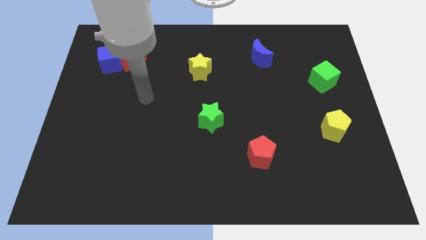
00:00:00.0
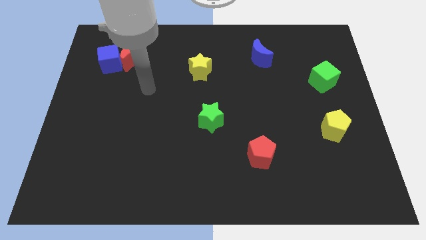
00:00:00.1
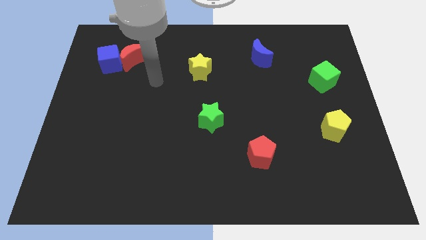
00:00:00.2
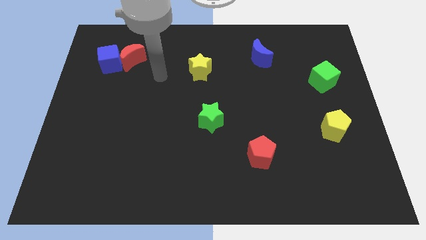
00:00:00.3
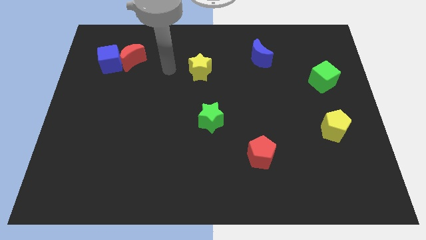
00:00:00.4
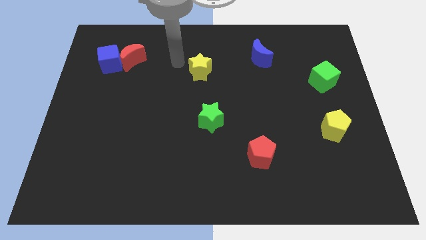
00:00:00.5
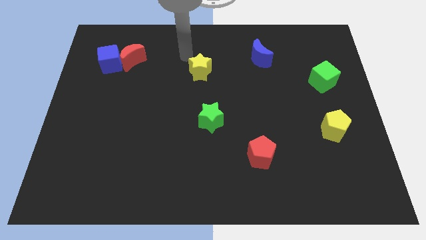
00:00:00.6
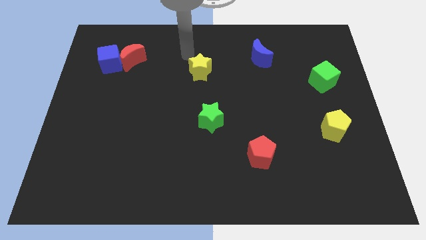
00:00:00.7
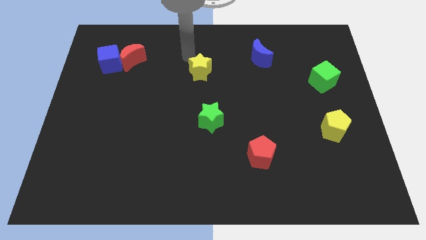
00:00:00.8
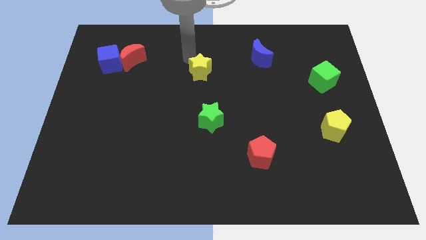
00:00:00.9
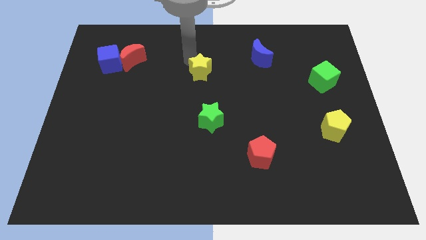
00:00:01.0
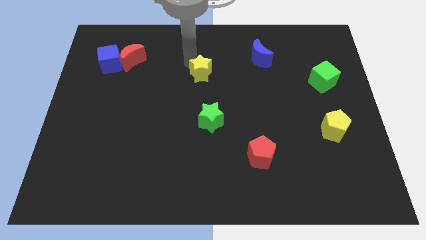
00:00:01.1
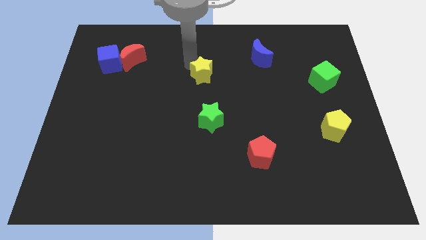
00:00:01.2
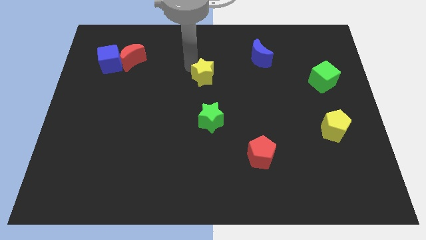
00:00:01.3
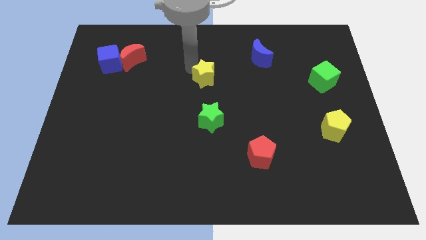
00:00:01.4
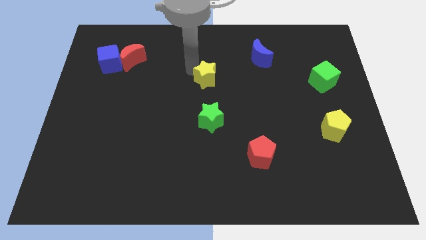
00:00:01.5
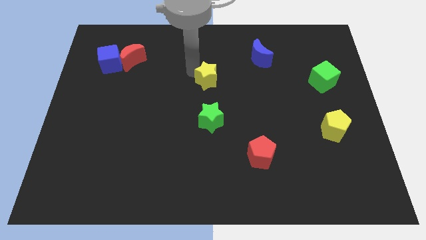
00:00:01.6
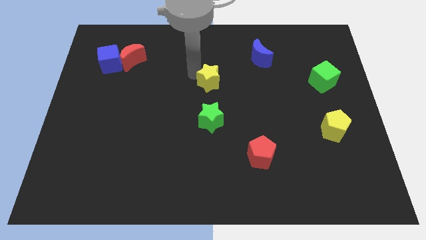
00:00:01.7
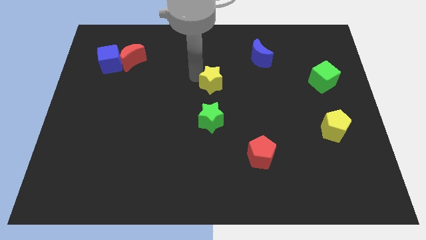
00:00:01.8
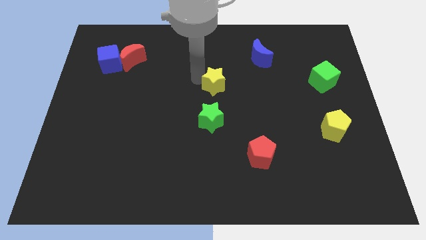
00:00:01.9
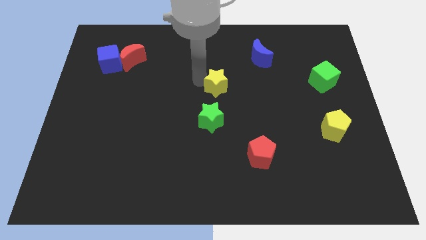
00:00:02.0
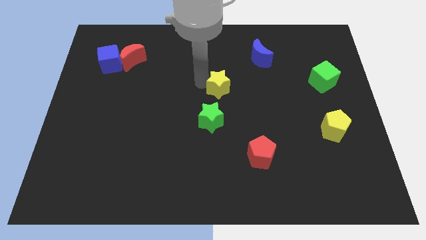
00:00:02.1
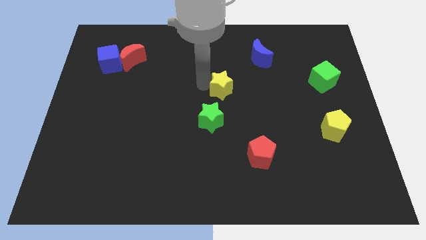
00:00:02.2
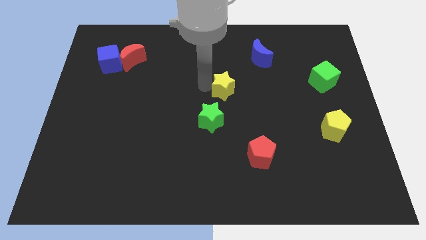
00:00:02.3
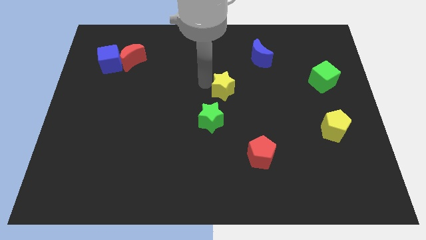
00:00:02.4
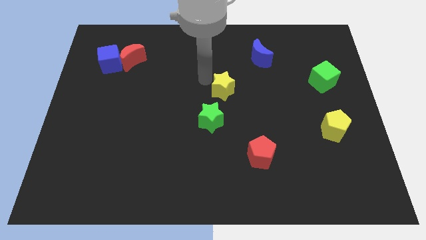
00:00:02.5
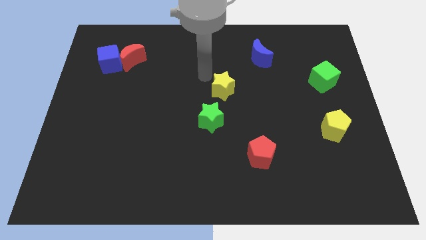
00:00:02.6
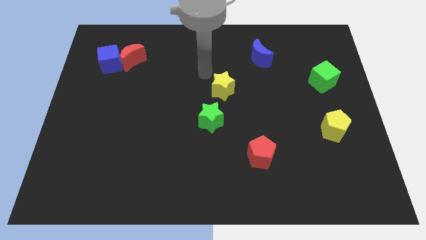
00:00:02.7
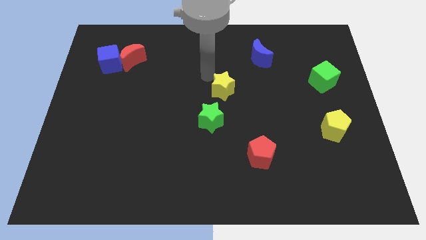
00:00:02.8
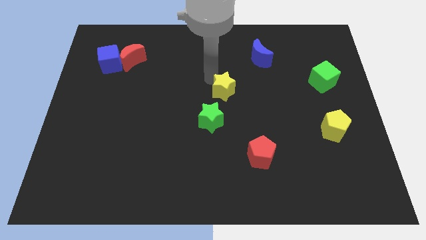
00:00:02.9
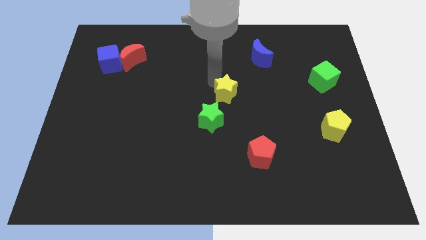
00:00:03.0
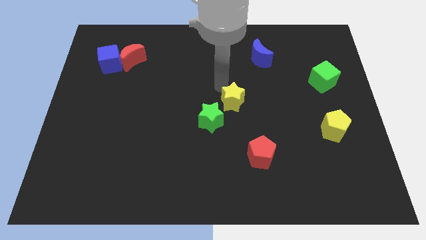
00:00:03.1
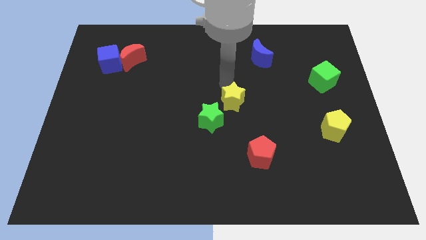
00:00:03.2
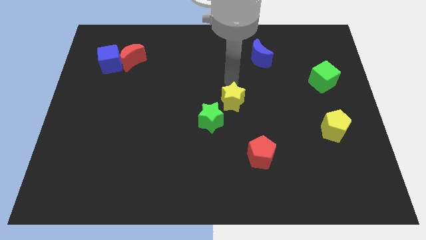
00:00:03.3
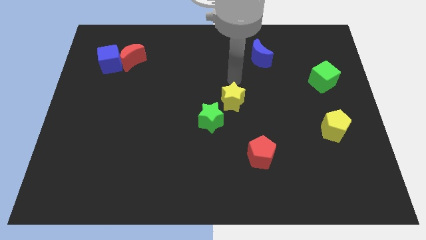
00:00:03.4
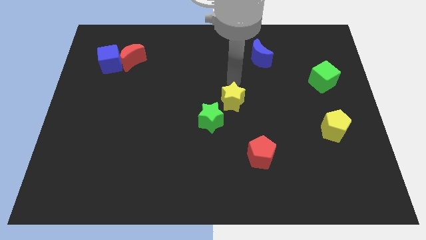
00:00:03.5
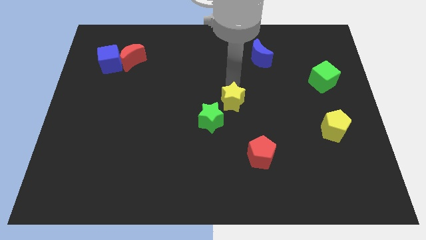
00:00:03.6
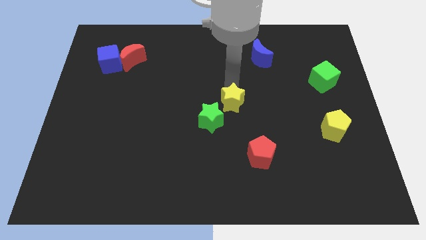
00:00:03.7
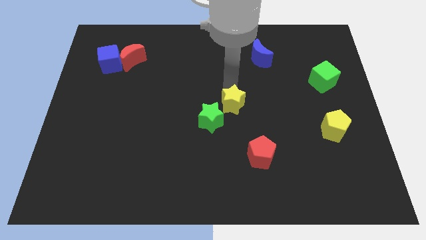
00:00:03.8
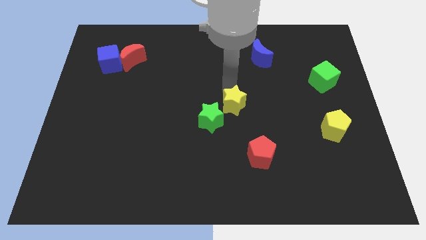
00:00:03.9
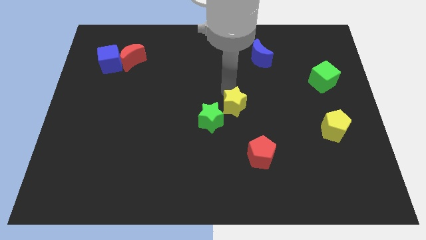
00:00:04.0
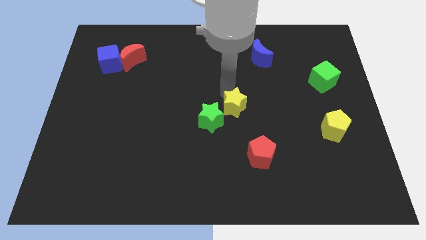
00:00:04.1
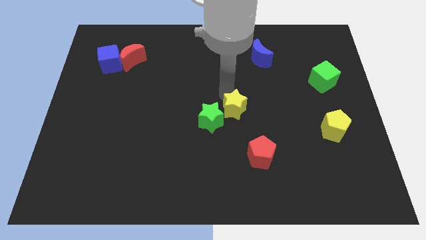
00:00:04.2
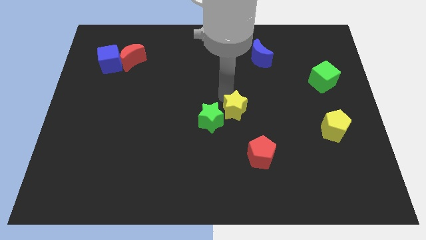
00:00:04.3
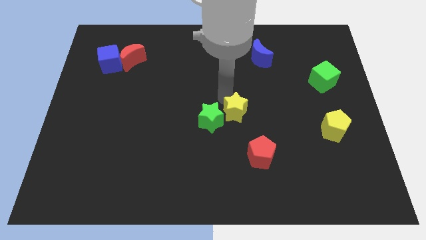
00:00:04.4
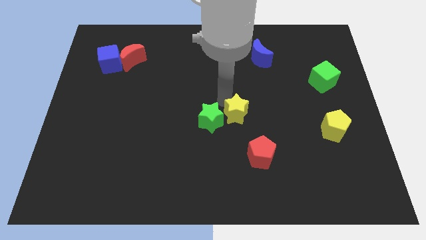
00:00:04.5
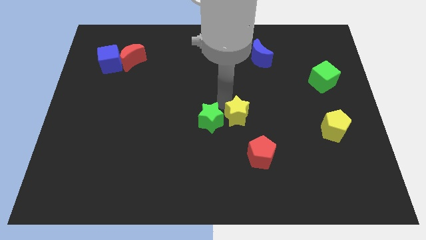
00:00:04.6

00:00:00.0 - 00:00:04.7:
move the yellow star diagonally up and to the left of the red pentagon

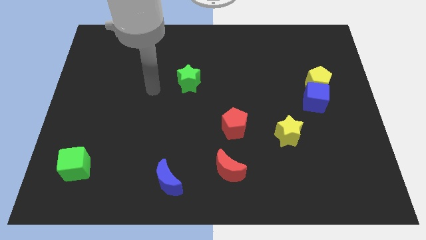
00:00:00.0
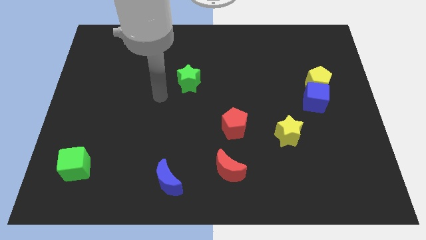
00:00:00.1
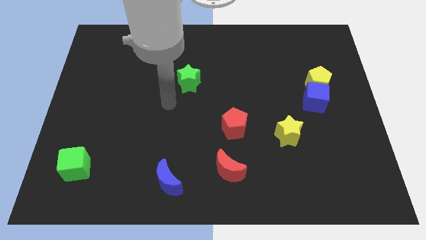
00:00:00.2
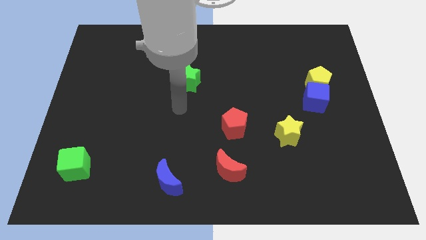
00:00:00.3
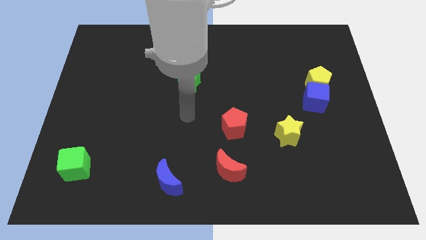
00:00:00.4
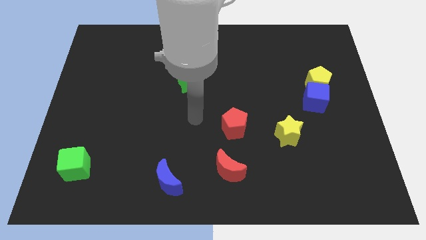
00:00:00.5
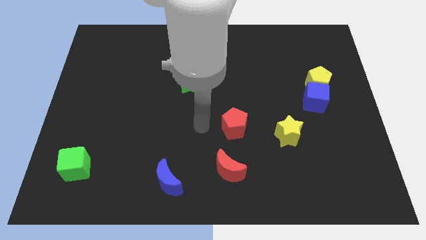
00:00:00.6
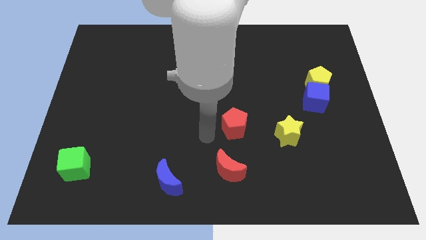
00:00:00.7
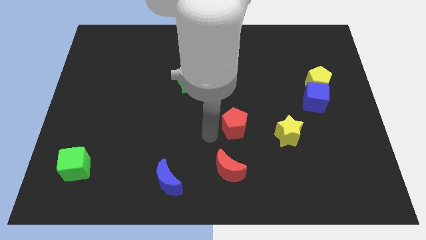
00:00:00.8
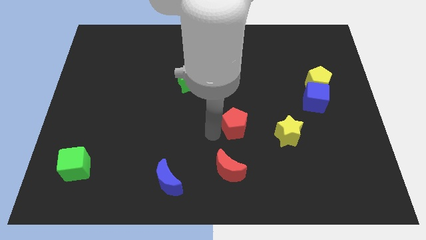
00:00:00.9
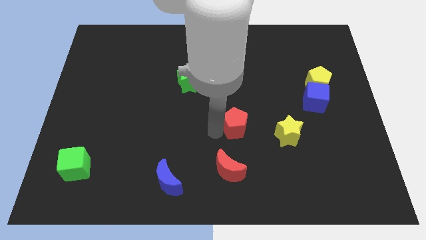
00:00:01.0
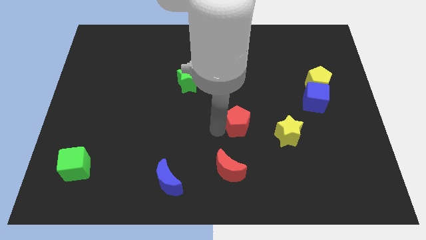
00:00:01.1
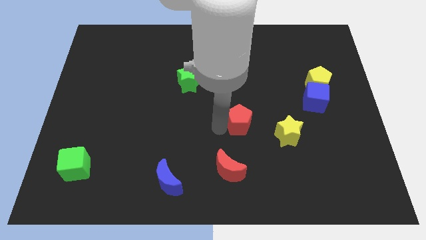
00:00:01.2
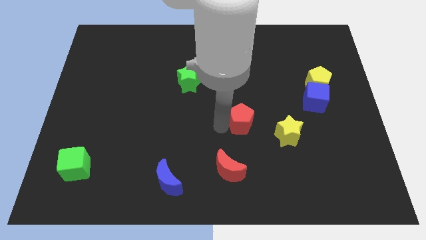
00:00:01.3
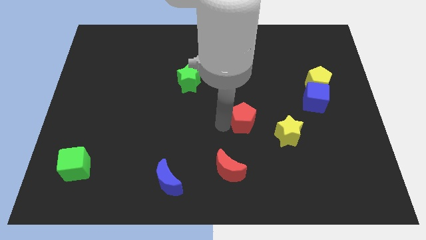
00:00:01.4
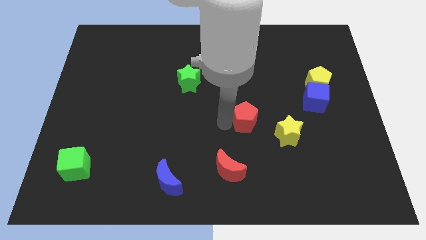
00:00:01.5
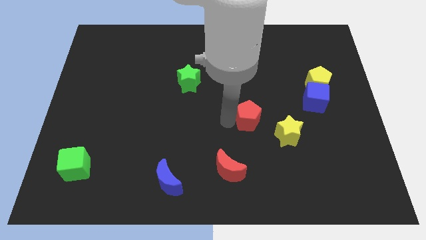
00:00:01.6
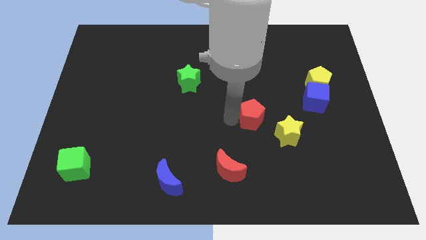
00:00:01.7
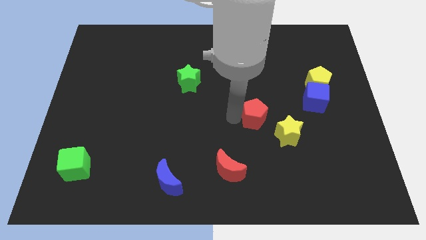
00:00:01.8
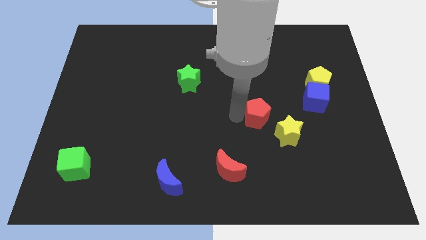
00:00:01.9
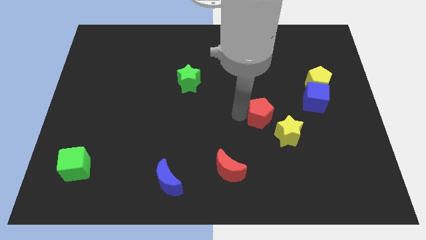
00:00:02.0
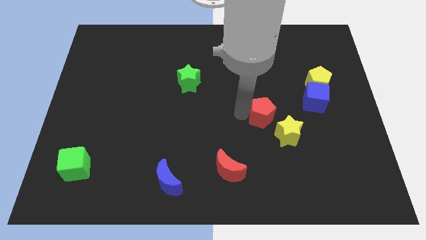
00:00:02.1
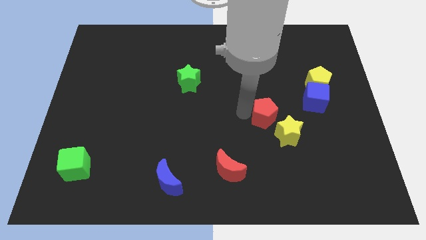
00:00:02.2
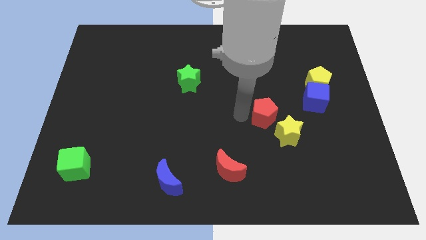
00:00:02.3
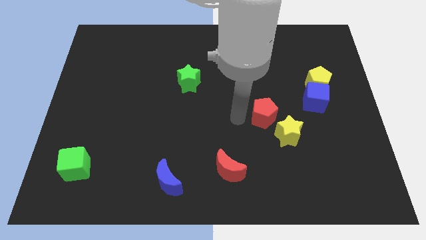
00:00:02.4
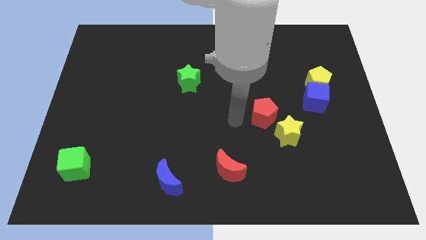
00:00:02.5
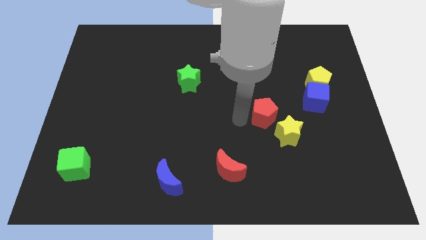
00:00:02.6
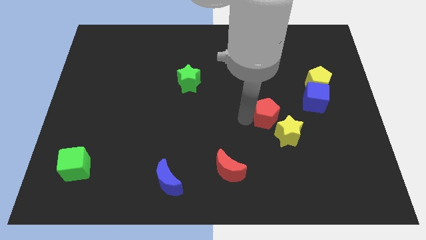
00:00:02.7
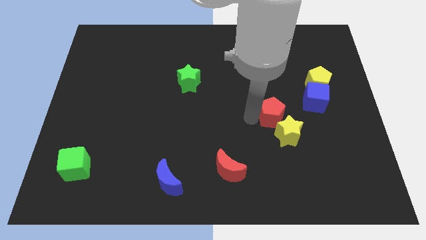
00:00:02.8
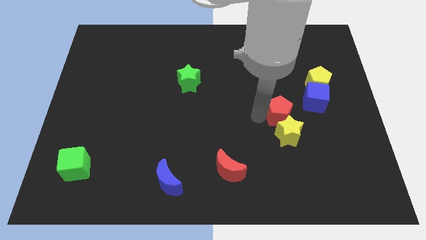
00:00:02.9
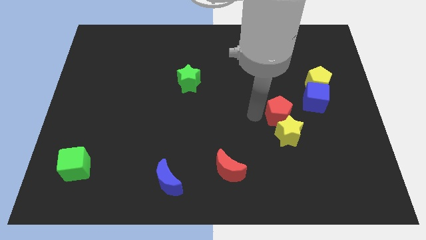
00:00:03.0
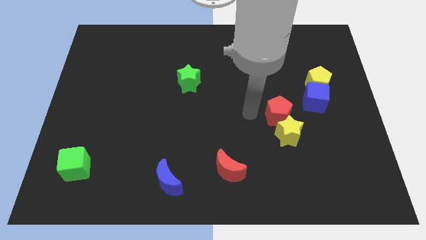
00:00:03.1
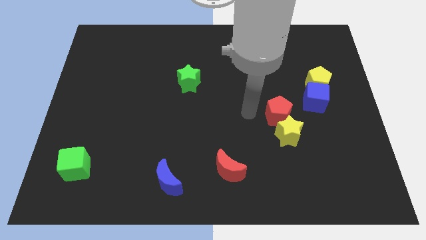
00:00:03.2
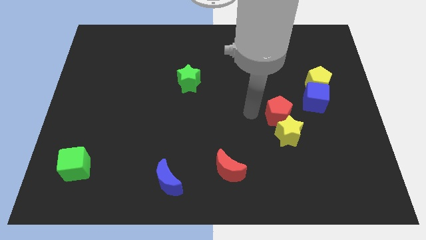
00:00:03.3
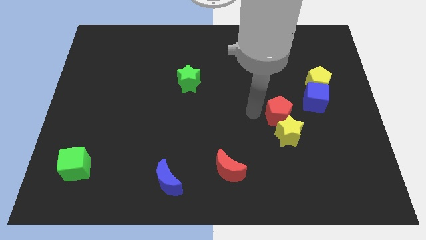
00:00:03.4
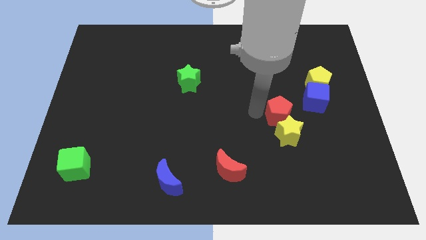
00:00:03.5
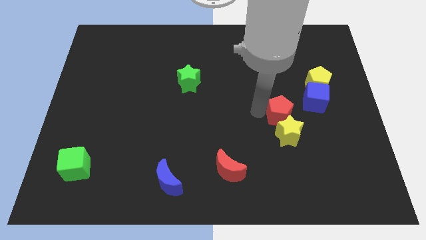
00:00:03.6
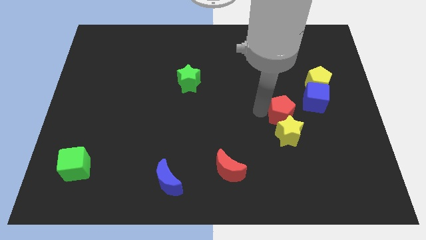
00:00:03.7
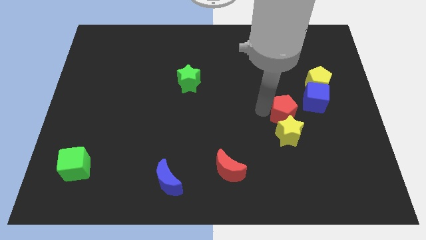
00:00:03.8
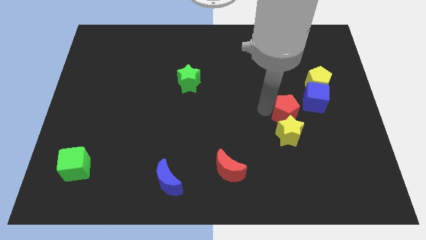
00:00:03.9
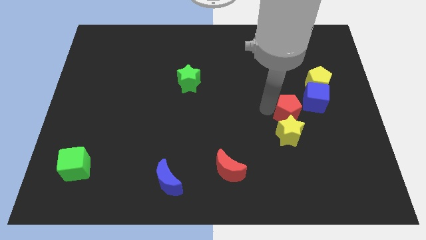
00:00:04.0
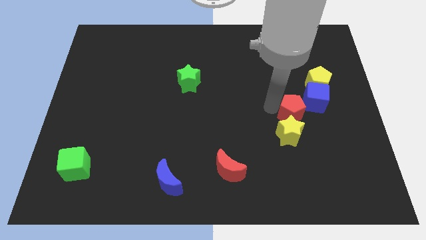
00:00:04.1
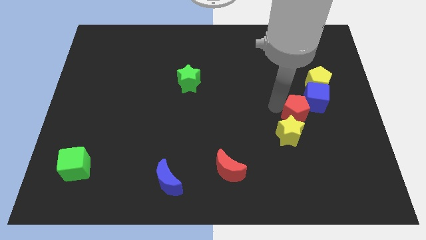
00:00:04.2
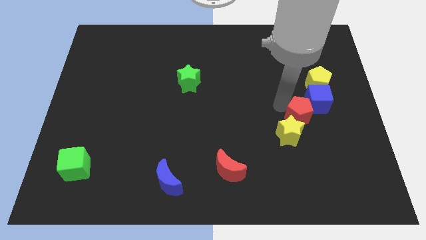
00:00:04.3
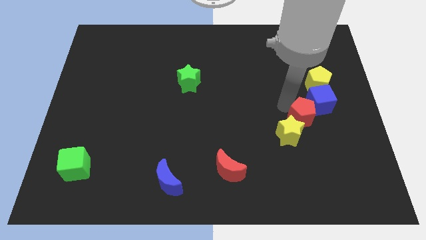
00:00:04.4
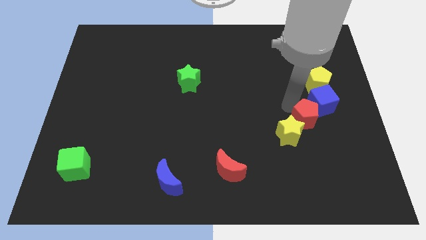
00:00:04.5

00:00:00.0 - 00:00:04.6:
move the red pentagon to the right side of the yellow star
